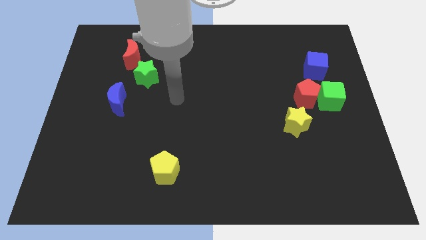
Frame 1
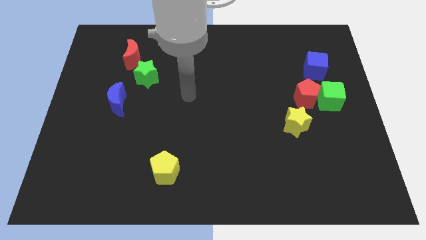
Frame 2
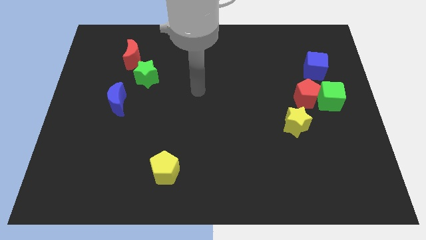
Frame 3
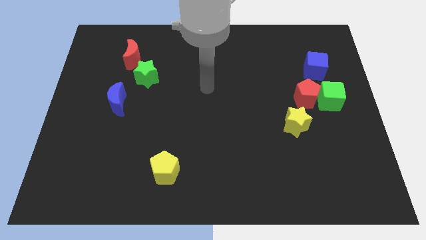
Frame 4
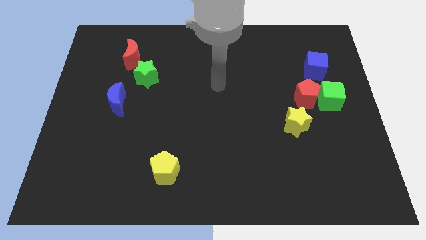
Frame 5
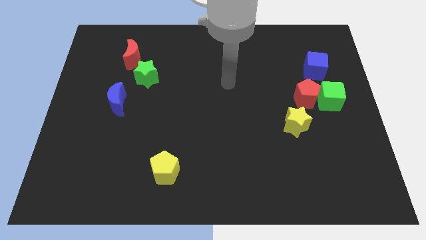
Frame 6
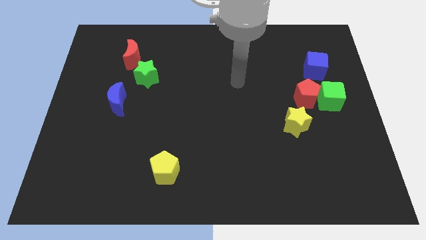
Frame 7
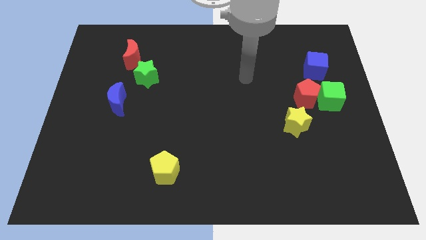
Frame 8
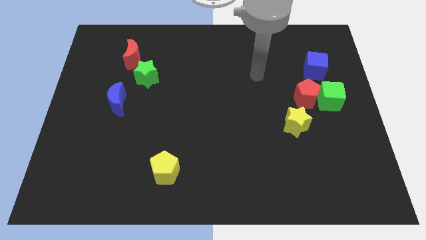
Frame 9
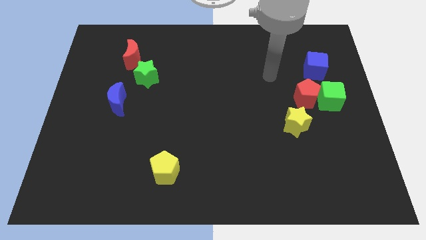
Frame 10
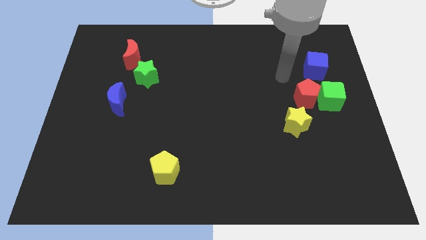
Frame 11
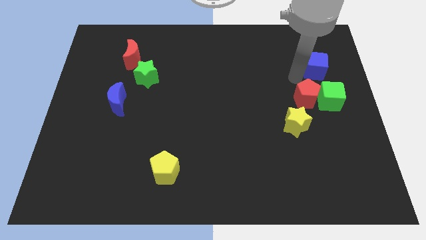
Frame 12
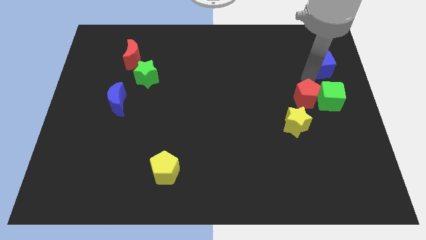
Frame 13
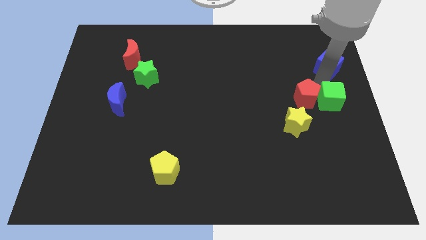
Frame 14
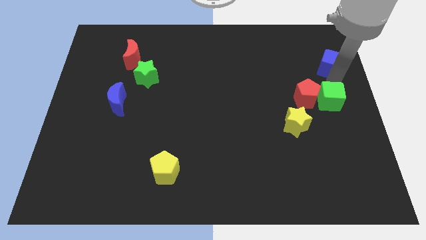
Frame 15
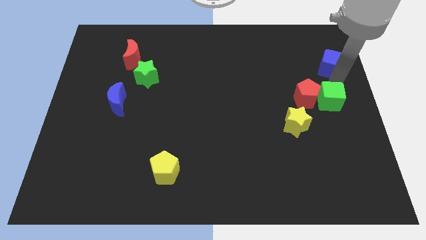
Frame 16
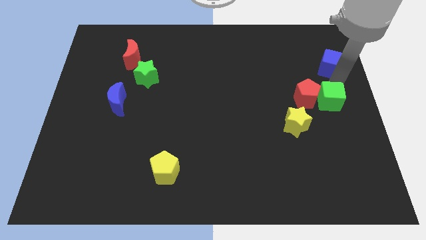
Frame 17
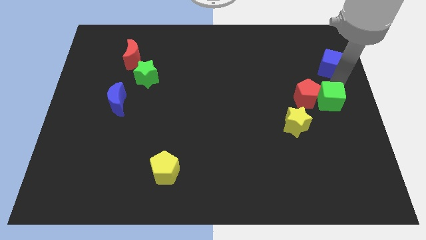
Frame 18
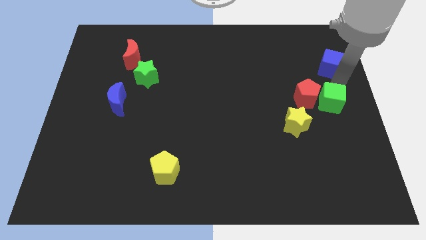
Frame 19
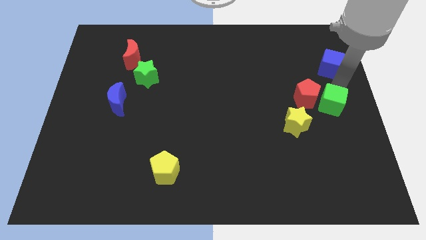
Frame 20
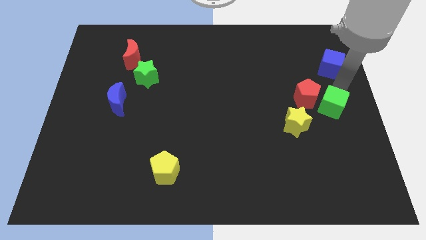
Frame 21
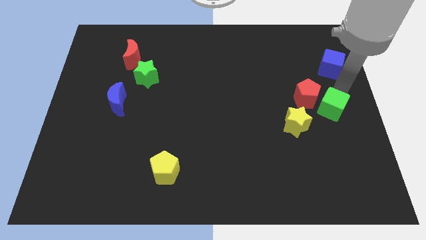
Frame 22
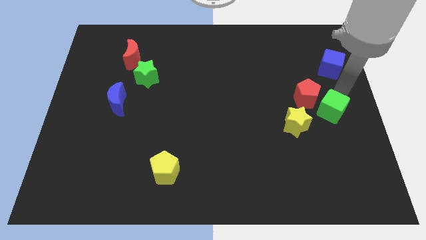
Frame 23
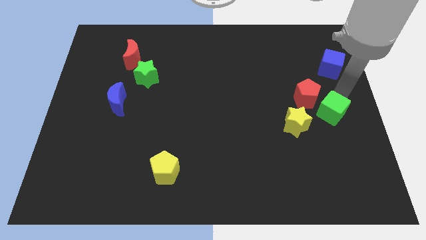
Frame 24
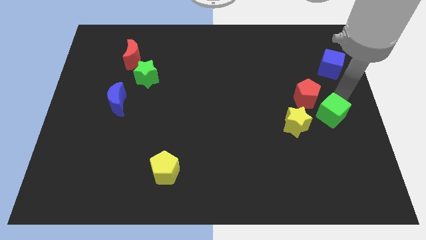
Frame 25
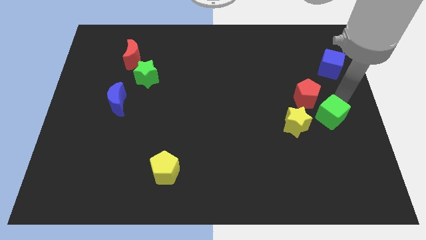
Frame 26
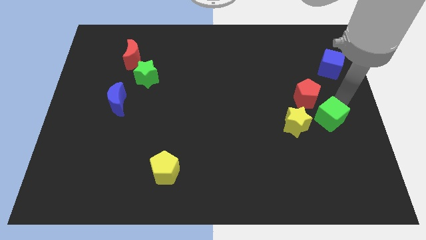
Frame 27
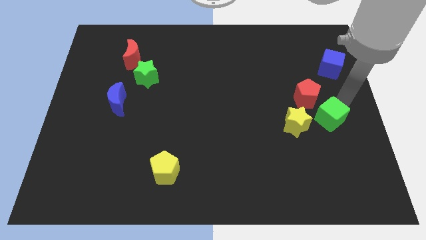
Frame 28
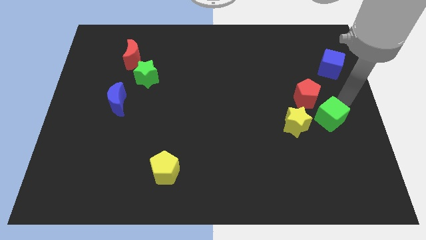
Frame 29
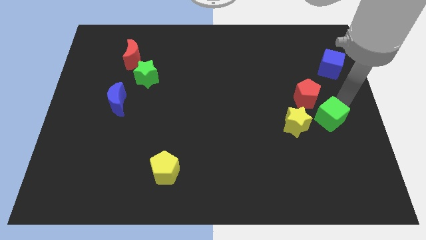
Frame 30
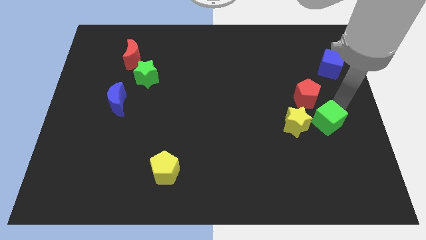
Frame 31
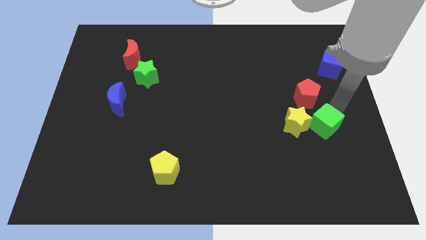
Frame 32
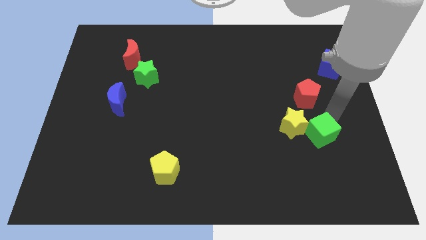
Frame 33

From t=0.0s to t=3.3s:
slightly slide the green cube down and left

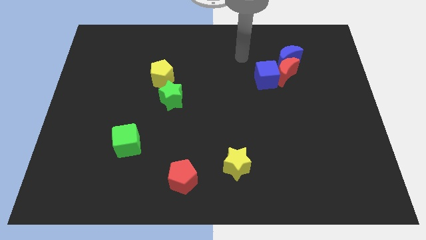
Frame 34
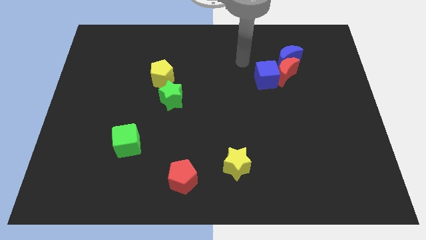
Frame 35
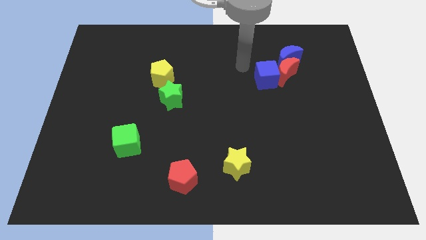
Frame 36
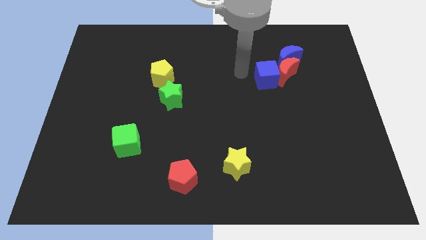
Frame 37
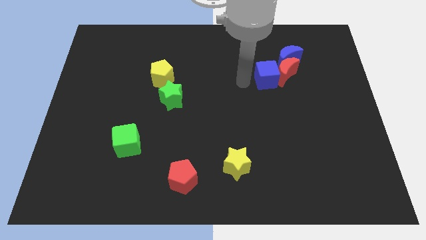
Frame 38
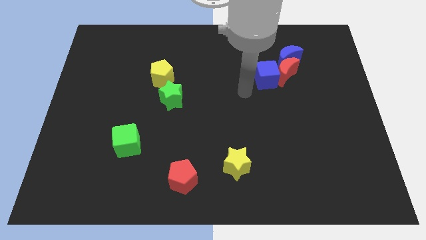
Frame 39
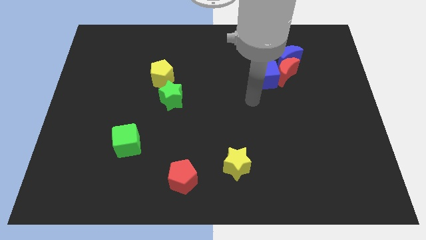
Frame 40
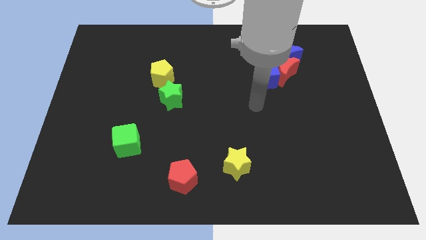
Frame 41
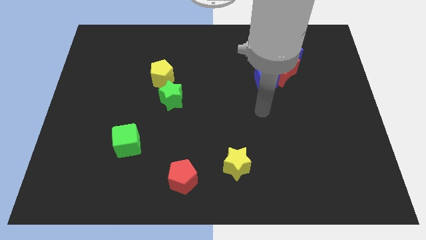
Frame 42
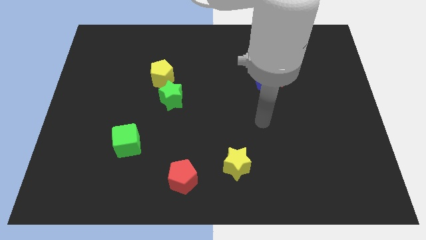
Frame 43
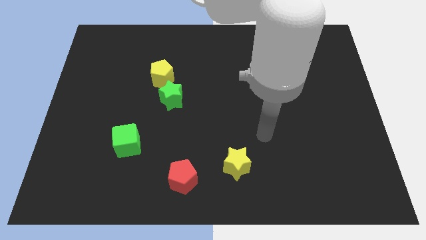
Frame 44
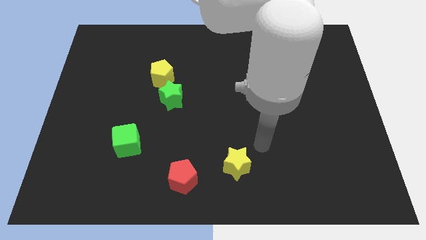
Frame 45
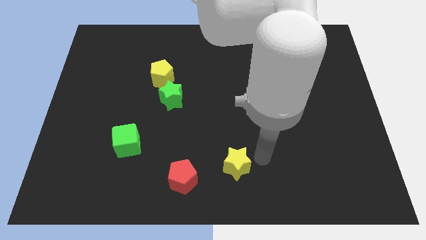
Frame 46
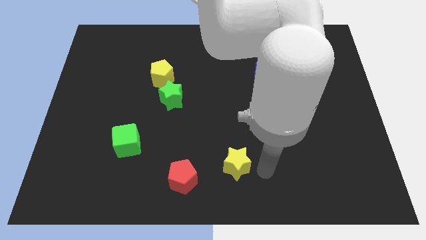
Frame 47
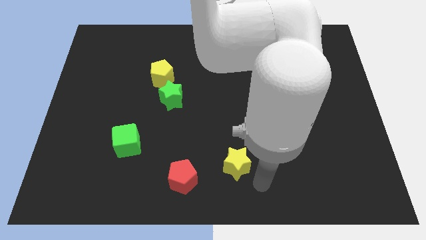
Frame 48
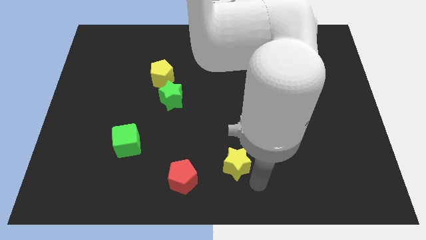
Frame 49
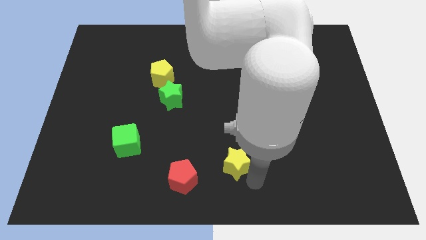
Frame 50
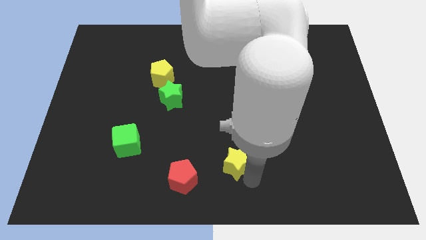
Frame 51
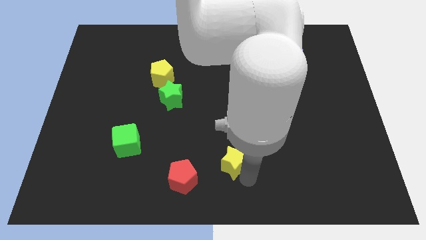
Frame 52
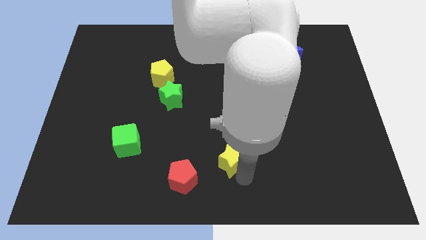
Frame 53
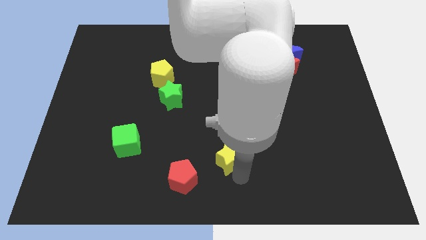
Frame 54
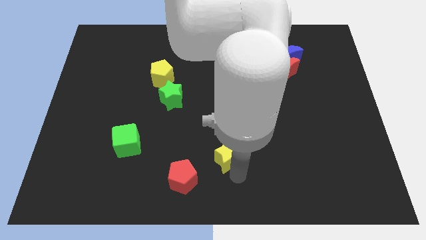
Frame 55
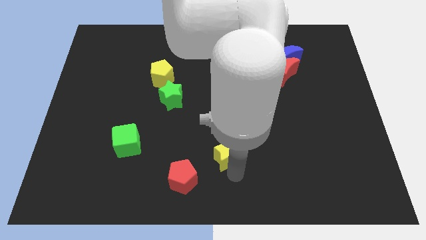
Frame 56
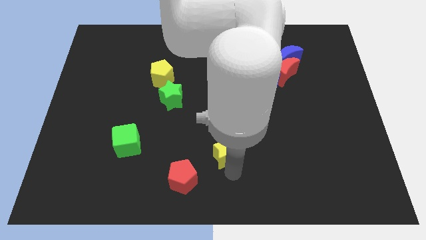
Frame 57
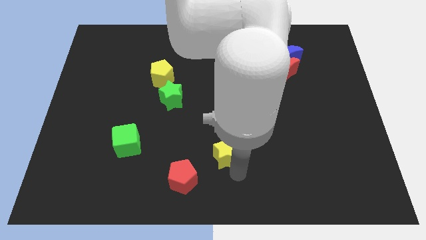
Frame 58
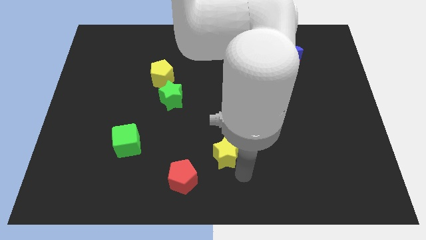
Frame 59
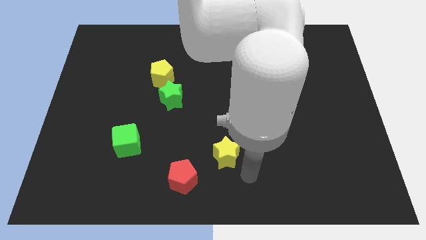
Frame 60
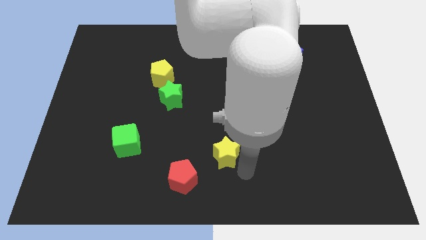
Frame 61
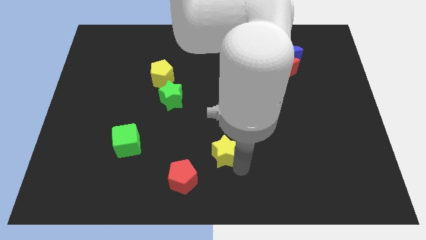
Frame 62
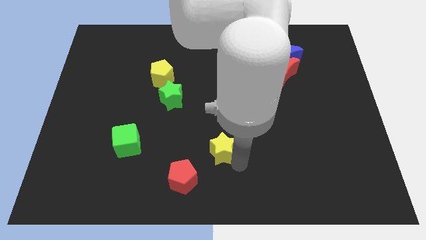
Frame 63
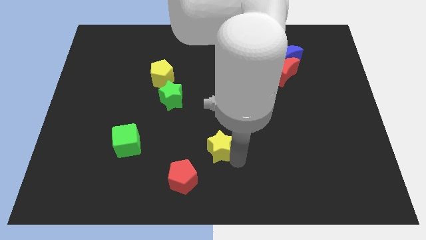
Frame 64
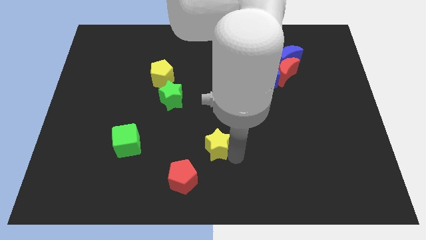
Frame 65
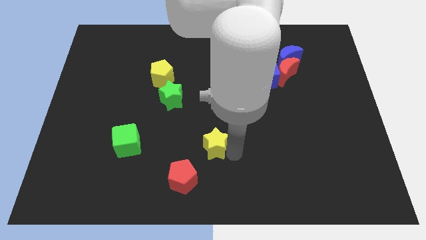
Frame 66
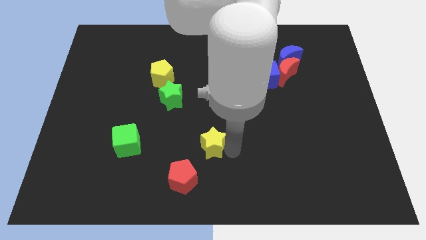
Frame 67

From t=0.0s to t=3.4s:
move the yellow star a little bit upwards and to the left

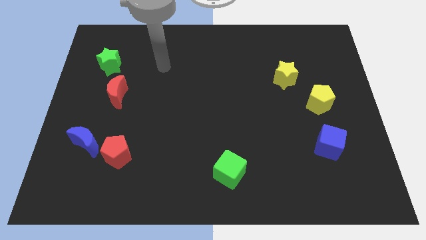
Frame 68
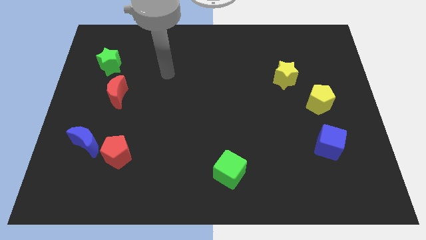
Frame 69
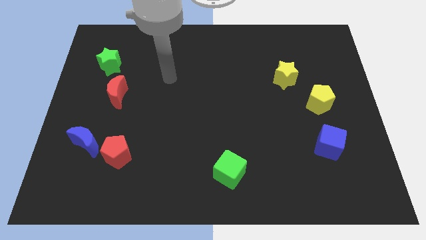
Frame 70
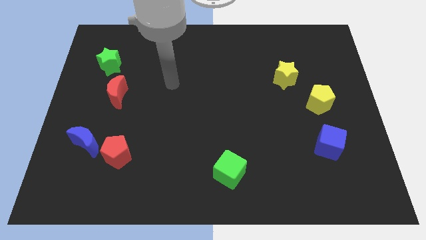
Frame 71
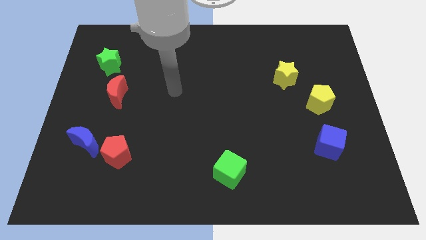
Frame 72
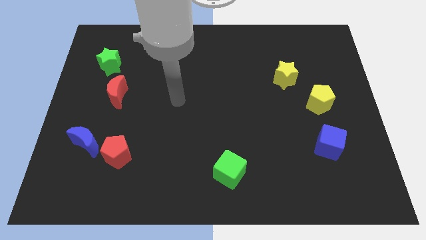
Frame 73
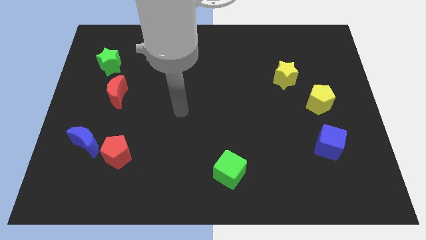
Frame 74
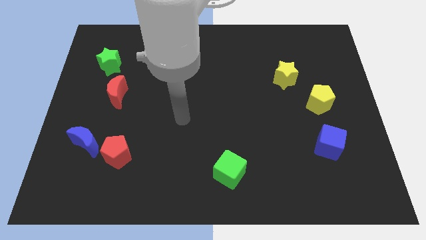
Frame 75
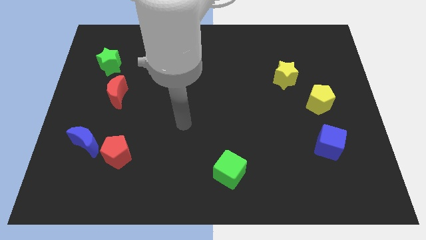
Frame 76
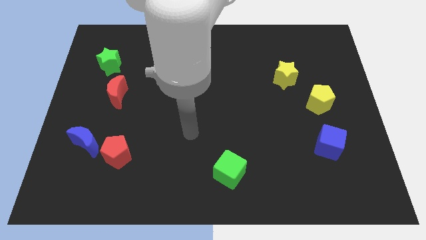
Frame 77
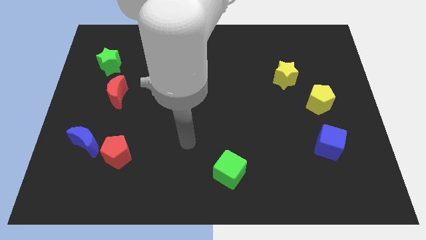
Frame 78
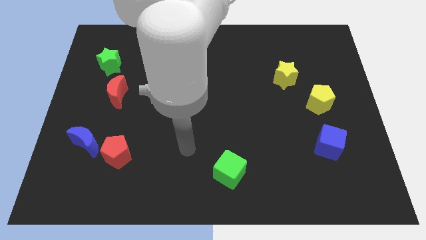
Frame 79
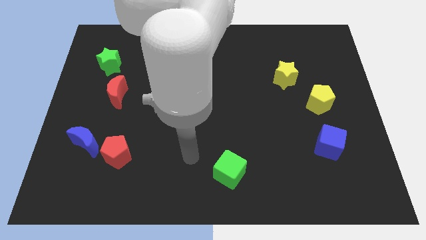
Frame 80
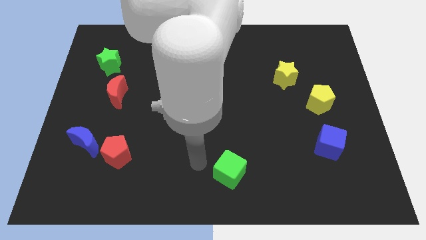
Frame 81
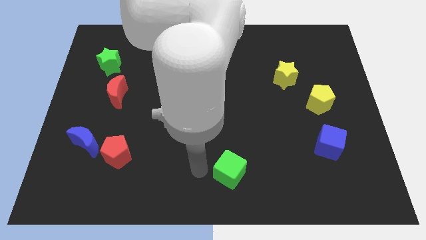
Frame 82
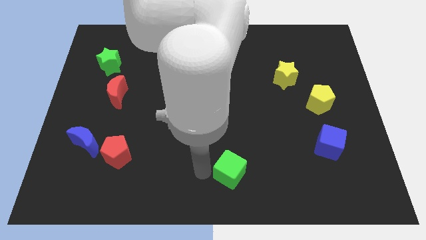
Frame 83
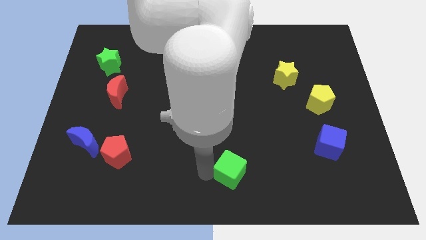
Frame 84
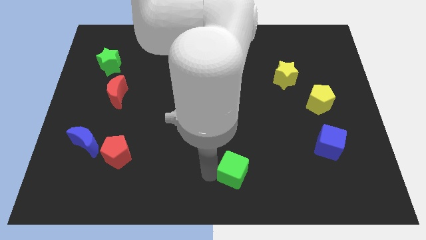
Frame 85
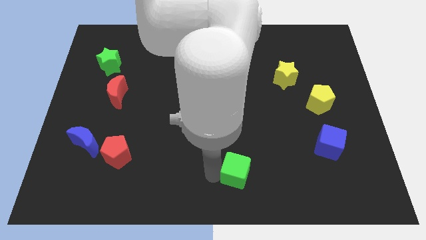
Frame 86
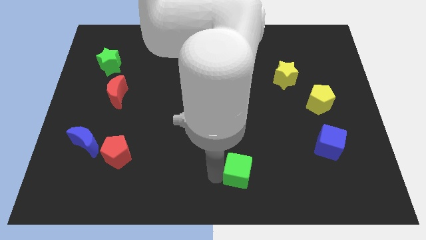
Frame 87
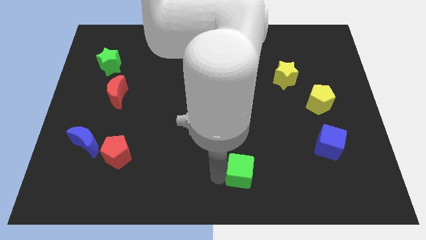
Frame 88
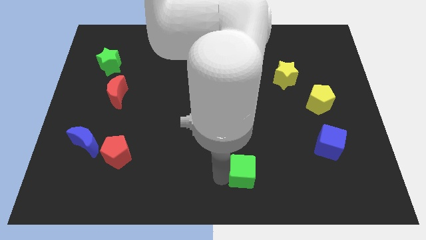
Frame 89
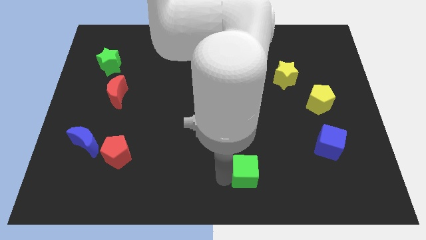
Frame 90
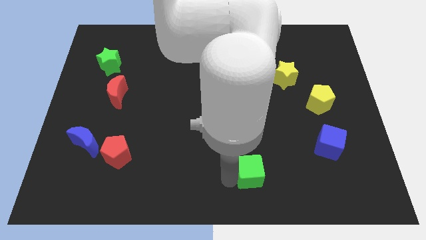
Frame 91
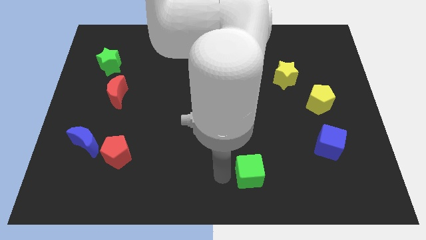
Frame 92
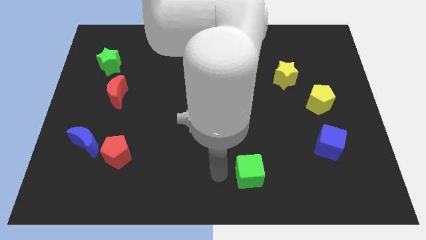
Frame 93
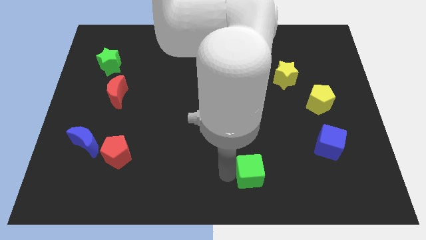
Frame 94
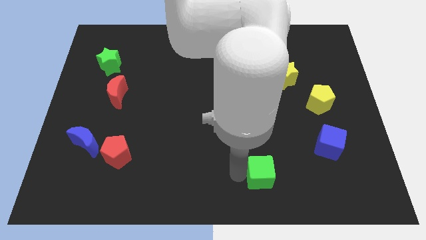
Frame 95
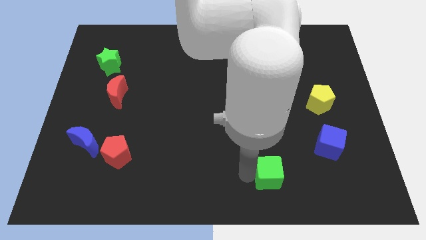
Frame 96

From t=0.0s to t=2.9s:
push the green cube to the right somewhat
